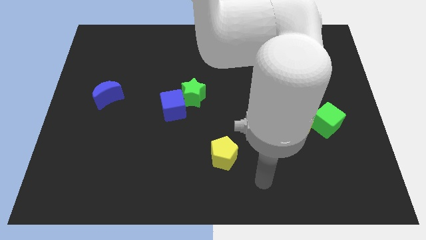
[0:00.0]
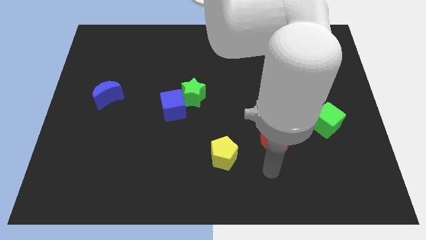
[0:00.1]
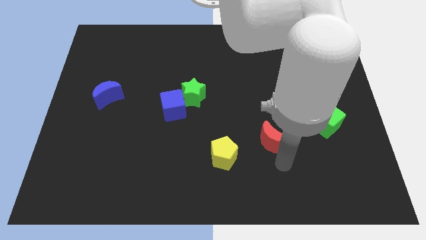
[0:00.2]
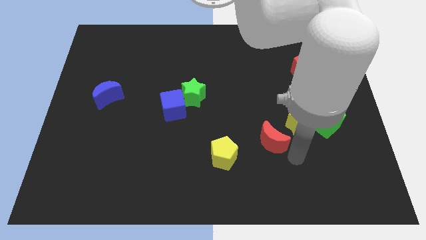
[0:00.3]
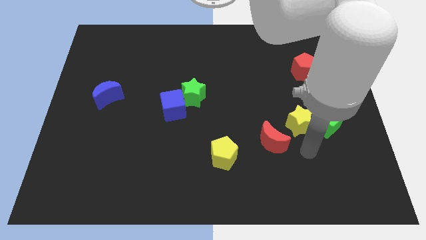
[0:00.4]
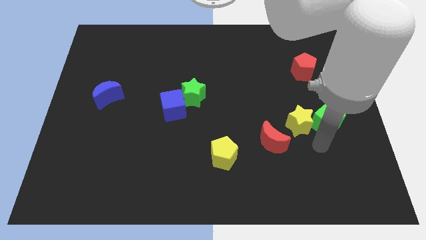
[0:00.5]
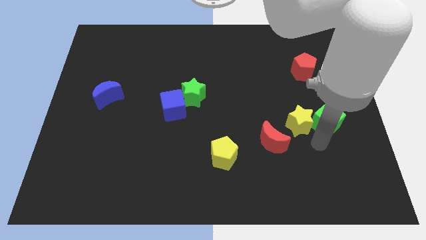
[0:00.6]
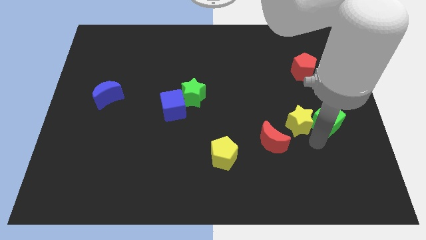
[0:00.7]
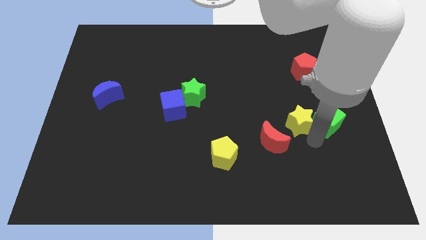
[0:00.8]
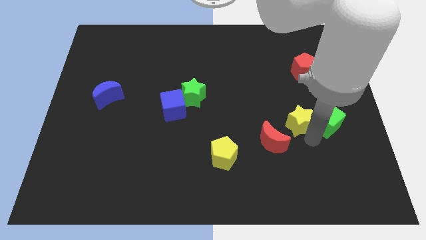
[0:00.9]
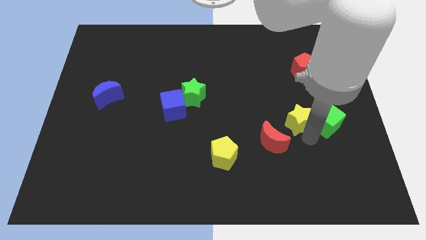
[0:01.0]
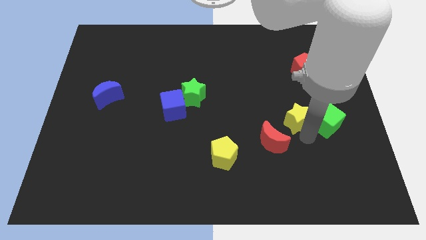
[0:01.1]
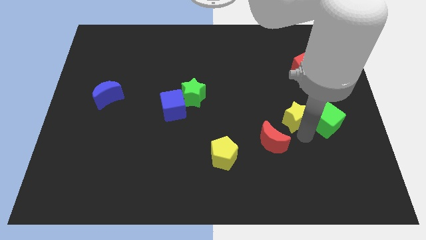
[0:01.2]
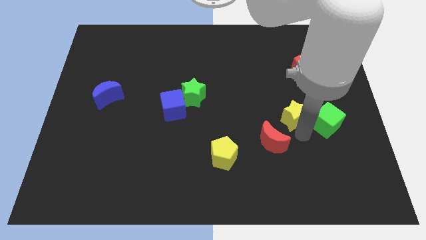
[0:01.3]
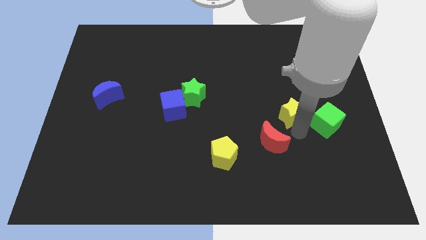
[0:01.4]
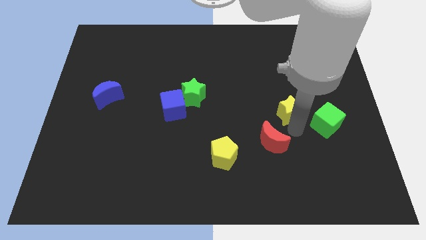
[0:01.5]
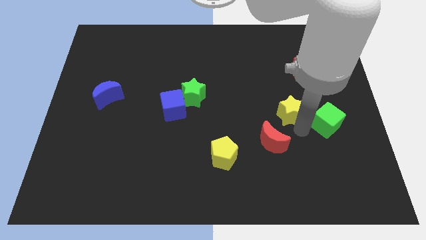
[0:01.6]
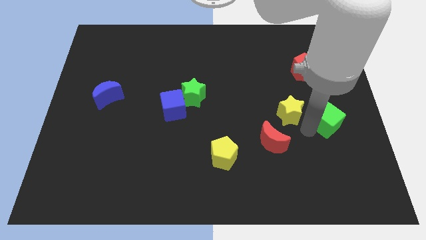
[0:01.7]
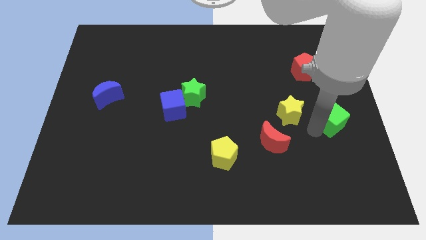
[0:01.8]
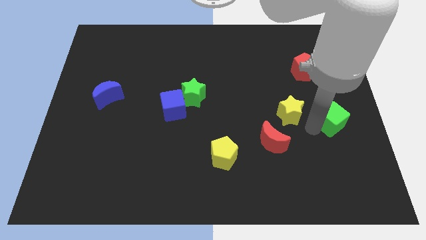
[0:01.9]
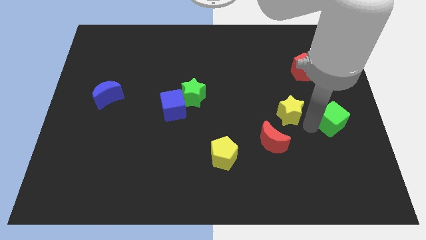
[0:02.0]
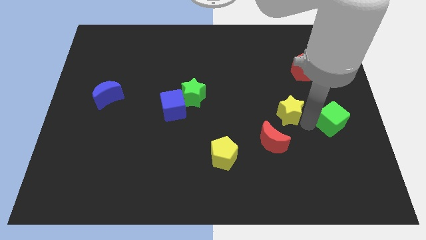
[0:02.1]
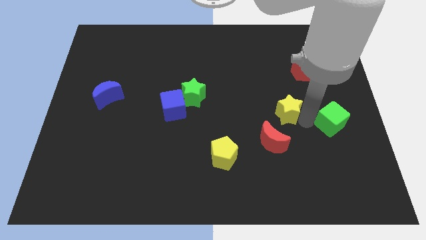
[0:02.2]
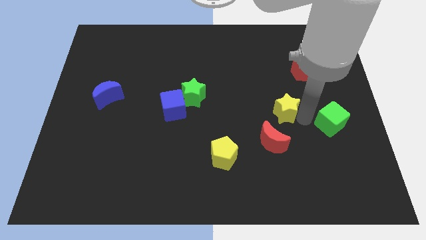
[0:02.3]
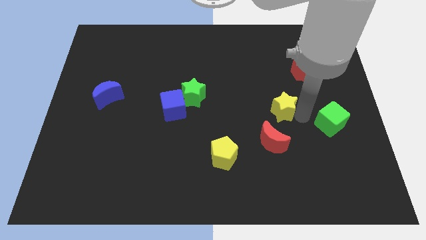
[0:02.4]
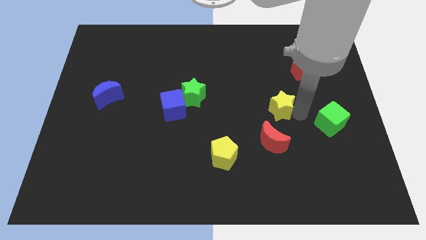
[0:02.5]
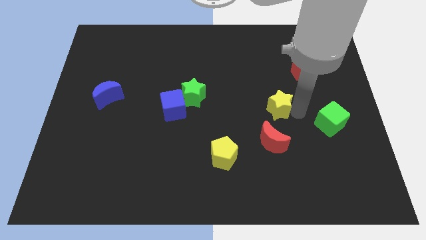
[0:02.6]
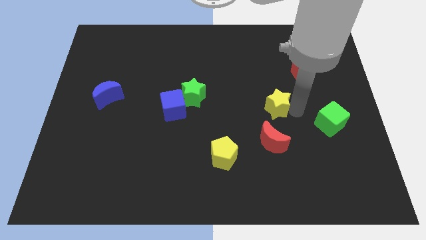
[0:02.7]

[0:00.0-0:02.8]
move the yellow star upwards and to the left diagonally a bit

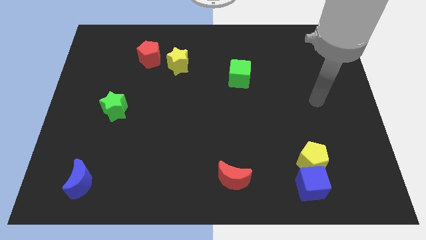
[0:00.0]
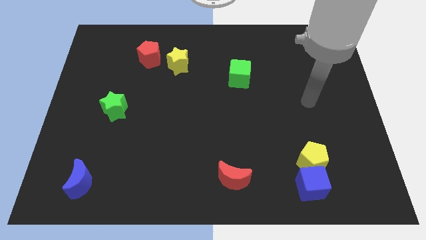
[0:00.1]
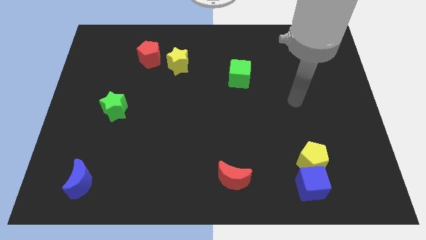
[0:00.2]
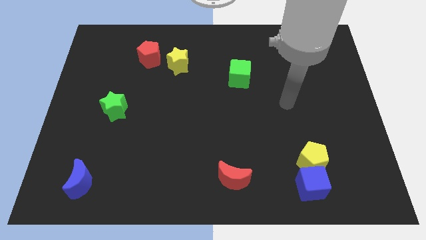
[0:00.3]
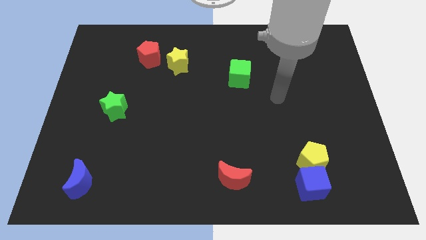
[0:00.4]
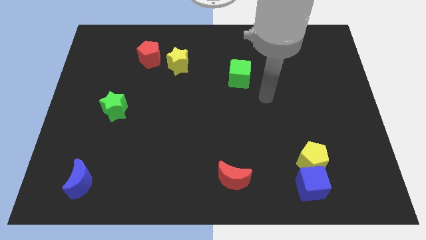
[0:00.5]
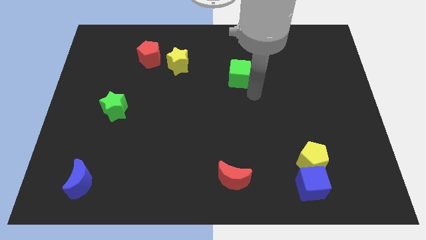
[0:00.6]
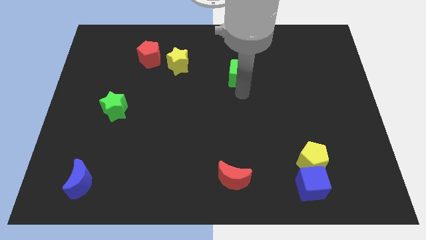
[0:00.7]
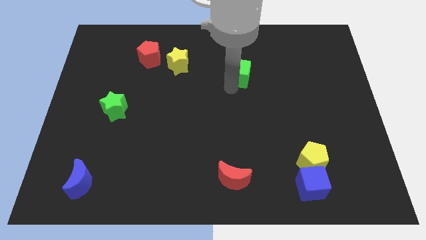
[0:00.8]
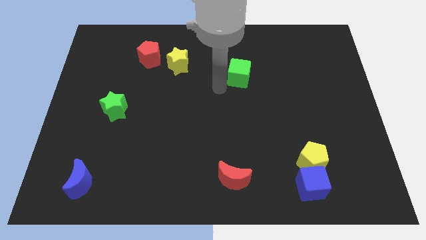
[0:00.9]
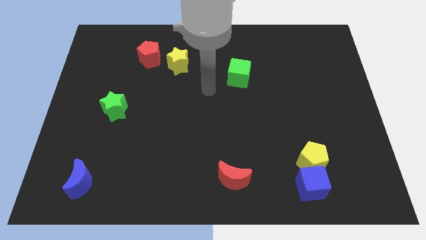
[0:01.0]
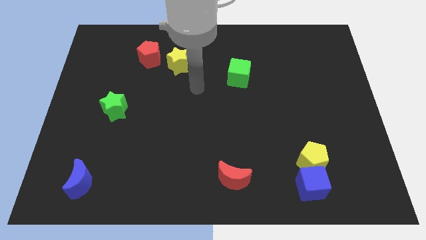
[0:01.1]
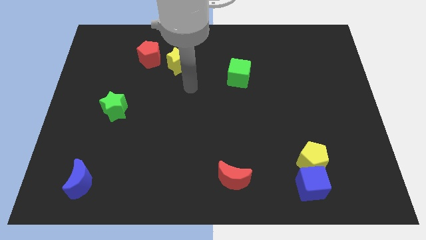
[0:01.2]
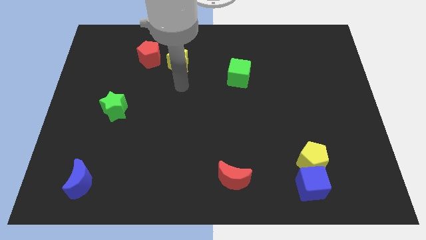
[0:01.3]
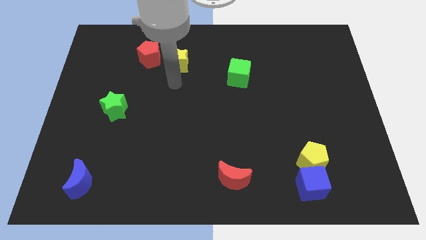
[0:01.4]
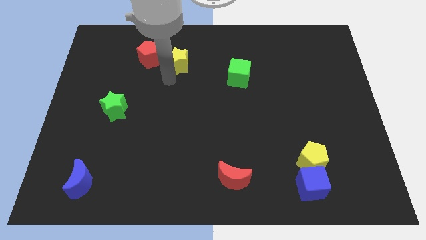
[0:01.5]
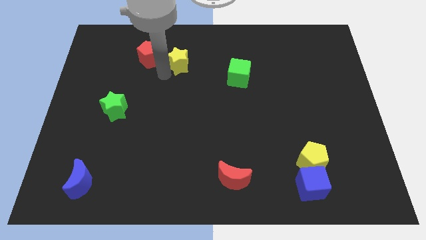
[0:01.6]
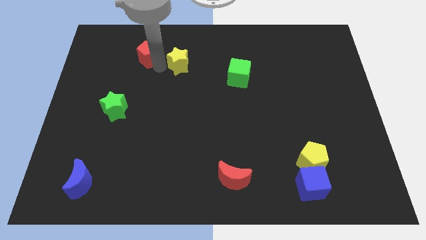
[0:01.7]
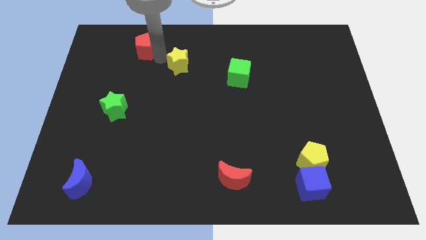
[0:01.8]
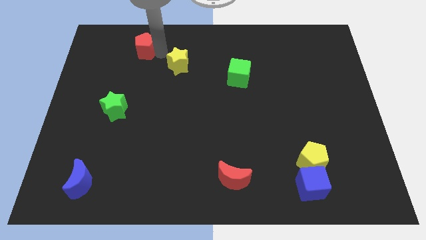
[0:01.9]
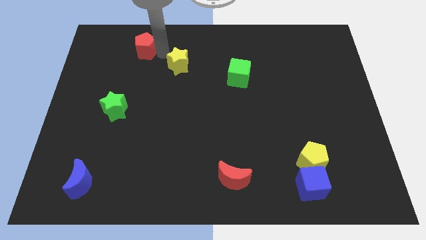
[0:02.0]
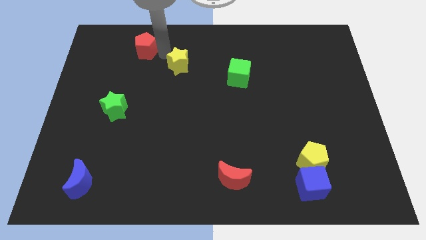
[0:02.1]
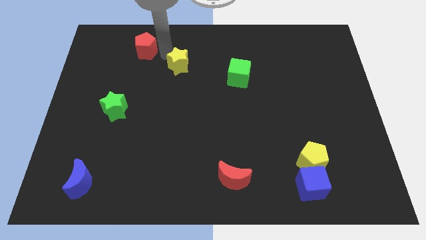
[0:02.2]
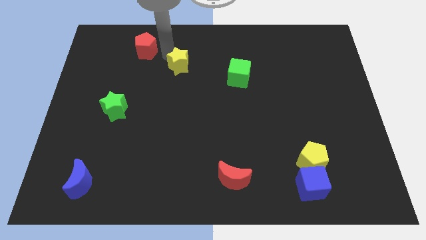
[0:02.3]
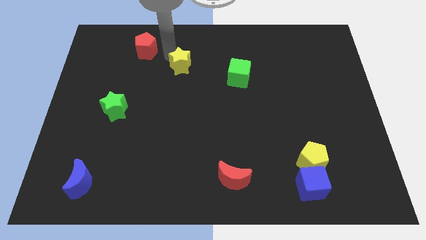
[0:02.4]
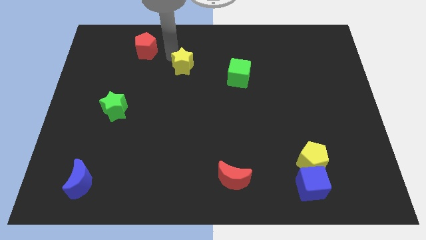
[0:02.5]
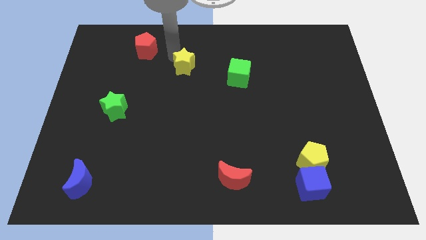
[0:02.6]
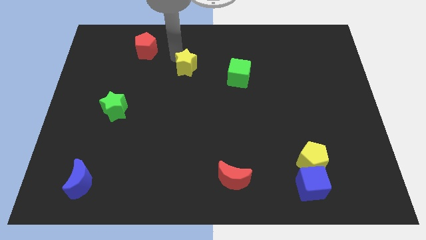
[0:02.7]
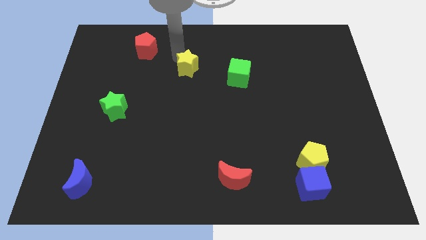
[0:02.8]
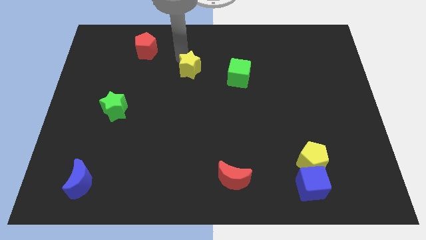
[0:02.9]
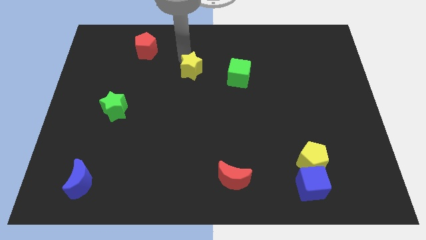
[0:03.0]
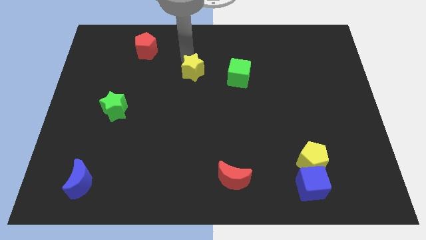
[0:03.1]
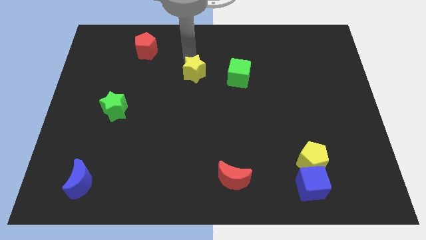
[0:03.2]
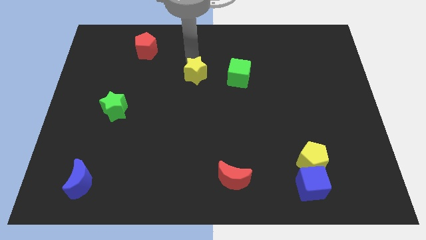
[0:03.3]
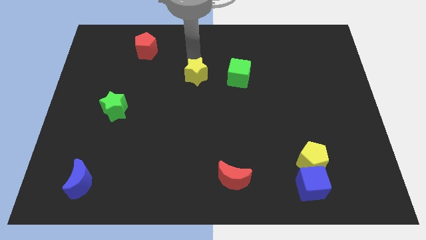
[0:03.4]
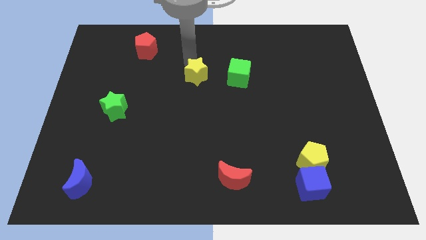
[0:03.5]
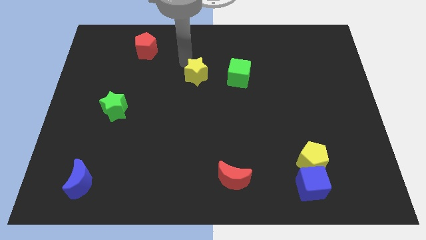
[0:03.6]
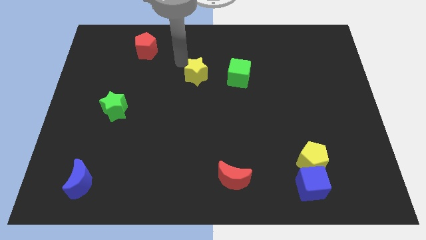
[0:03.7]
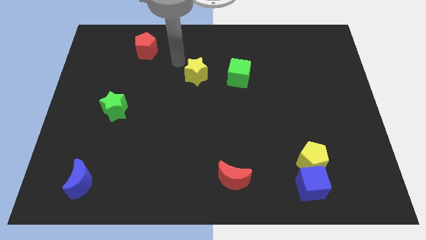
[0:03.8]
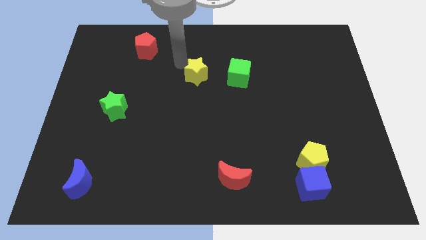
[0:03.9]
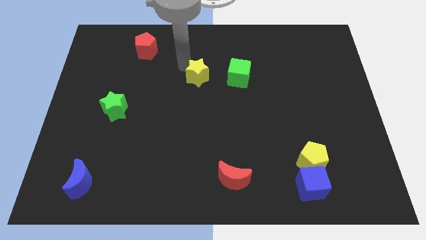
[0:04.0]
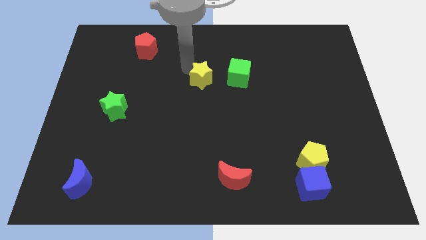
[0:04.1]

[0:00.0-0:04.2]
slightly move the yellow star downwards and right diagonally

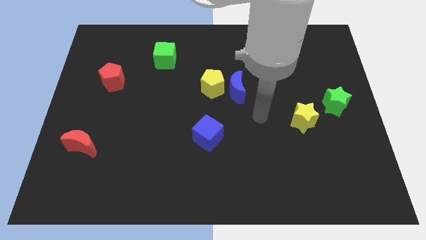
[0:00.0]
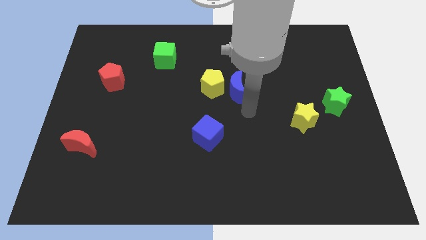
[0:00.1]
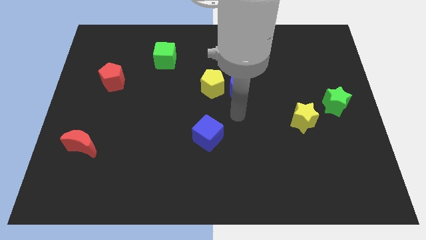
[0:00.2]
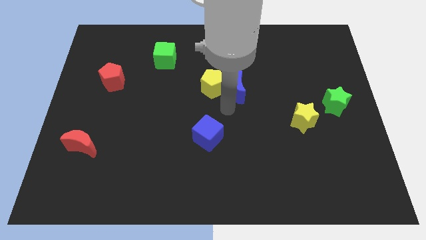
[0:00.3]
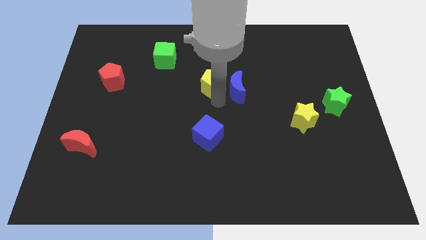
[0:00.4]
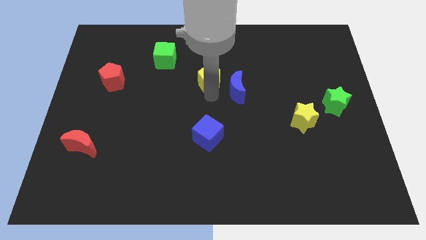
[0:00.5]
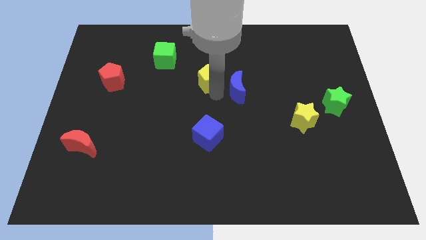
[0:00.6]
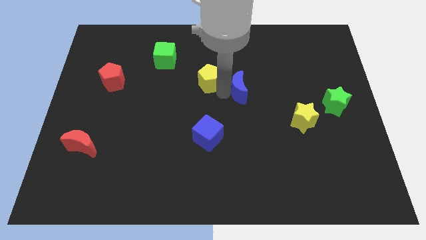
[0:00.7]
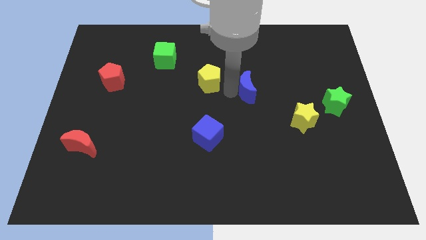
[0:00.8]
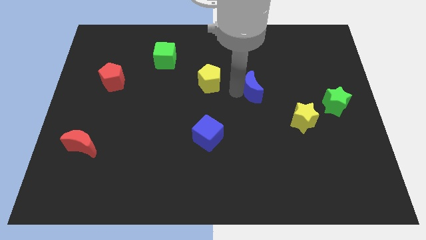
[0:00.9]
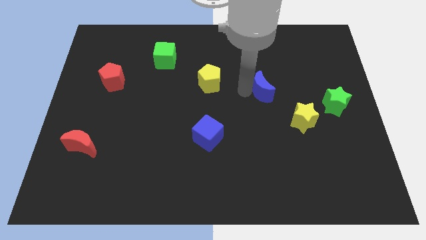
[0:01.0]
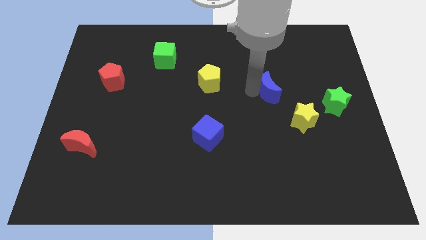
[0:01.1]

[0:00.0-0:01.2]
move the blue moon a little right

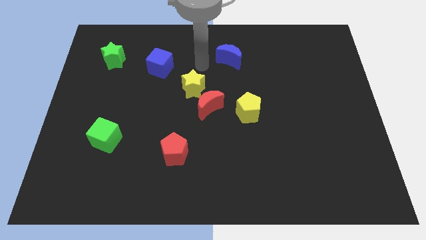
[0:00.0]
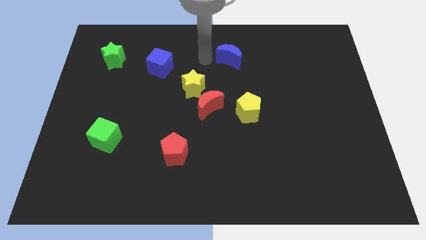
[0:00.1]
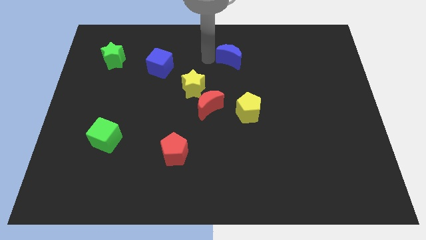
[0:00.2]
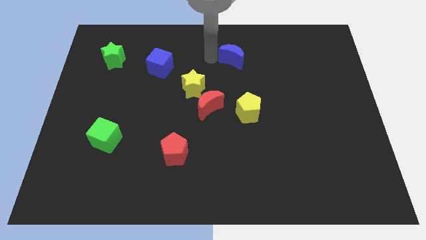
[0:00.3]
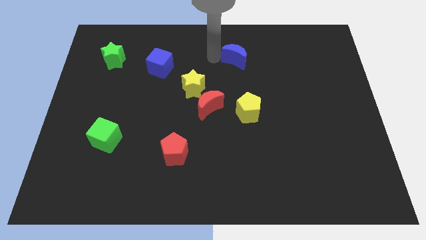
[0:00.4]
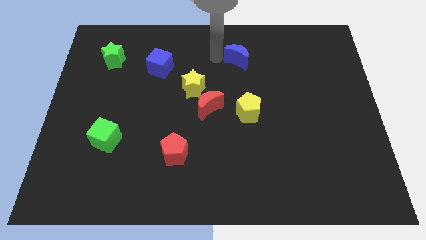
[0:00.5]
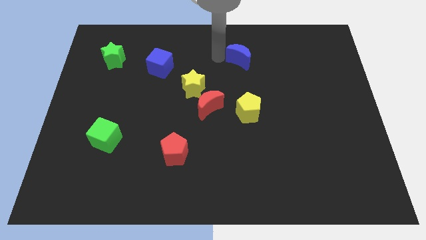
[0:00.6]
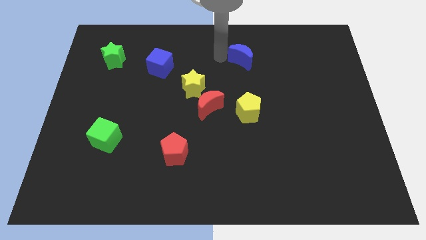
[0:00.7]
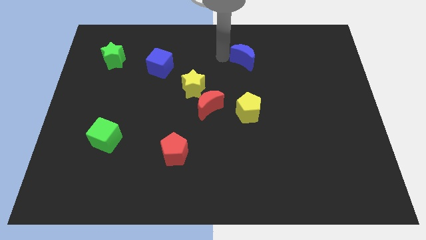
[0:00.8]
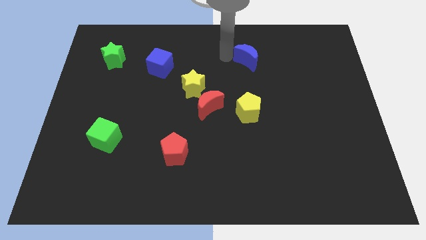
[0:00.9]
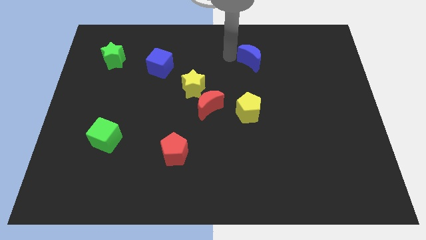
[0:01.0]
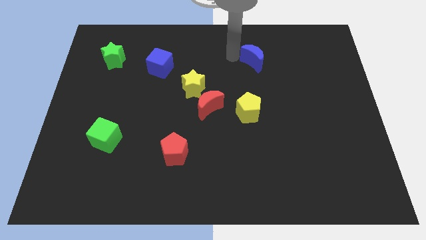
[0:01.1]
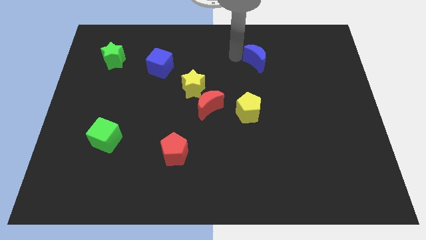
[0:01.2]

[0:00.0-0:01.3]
move the blue moon to the right a bit
